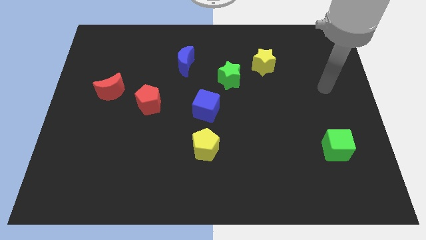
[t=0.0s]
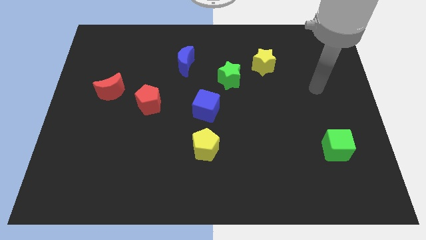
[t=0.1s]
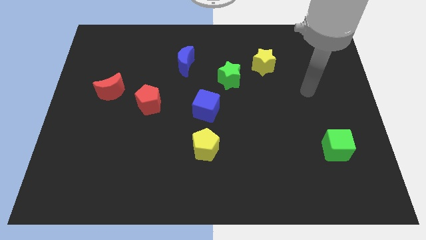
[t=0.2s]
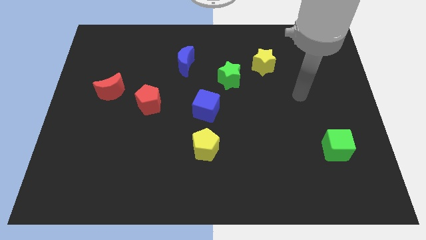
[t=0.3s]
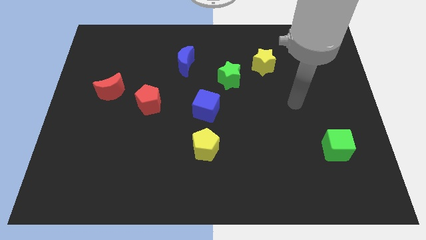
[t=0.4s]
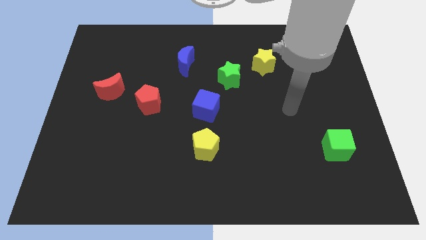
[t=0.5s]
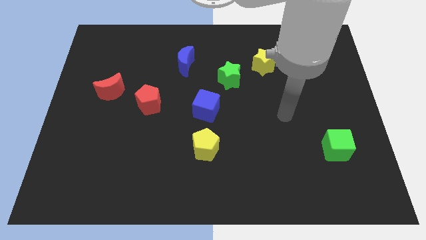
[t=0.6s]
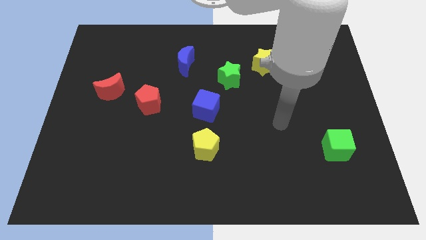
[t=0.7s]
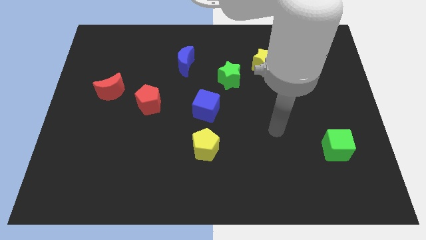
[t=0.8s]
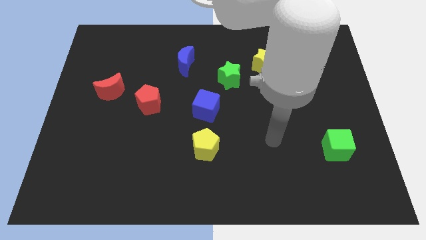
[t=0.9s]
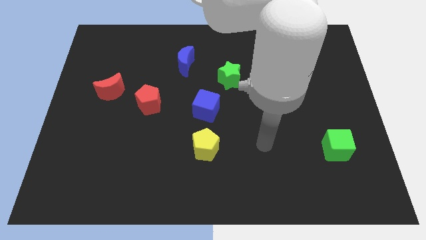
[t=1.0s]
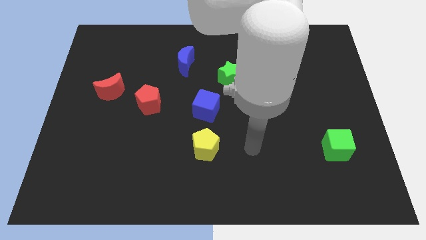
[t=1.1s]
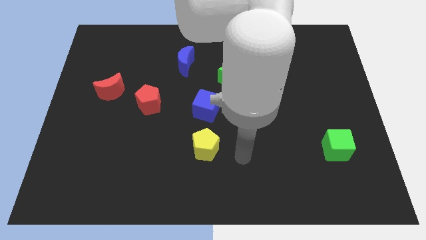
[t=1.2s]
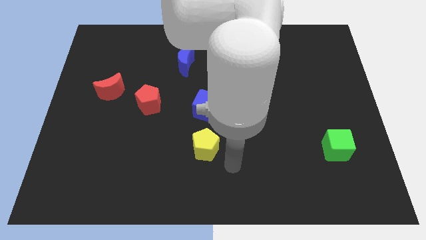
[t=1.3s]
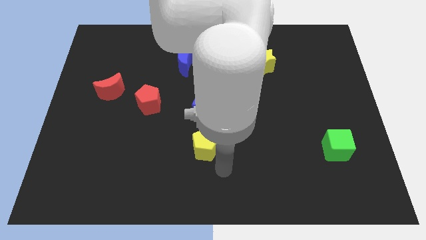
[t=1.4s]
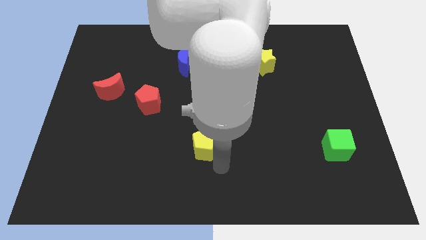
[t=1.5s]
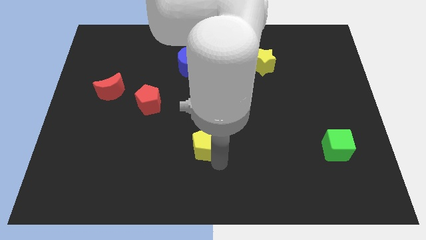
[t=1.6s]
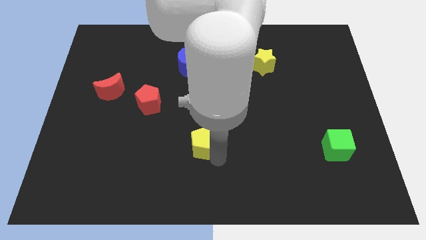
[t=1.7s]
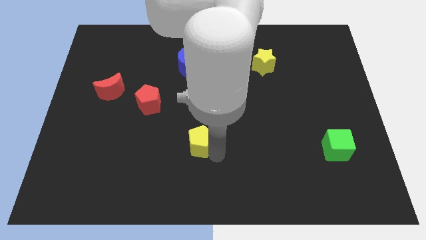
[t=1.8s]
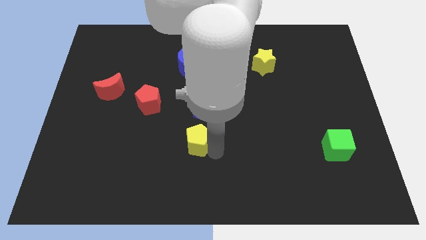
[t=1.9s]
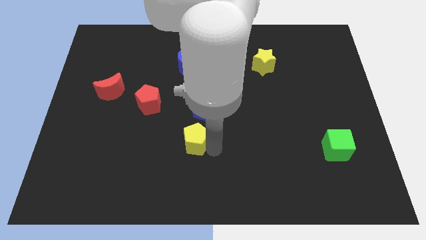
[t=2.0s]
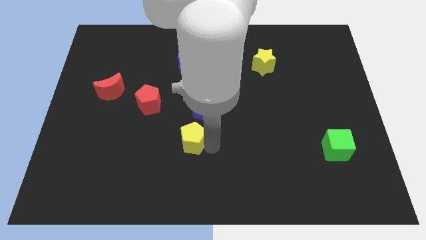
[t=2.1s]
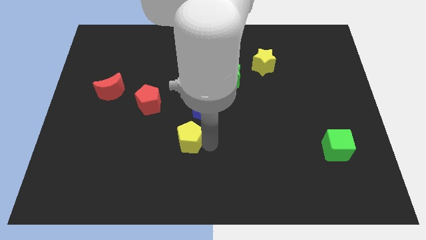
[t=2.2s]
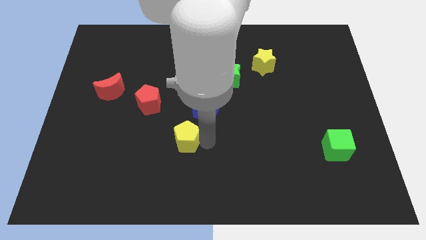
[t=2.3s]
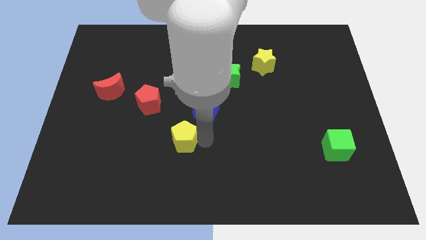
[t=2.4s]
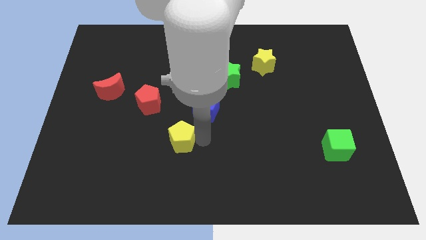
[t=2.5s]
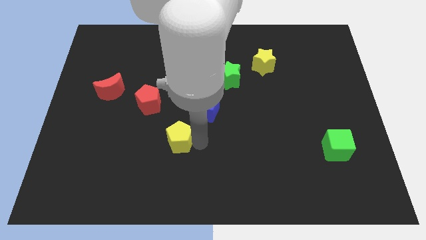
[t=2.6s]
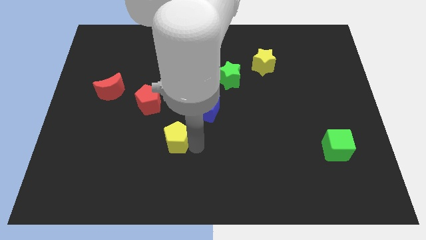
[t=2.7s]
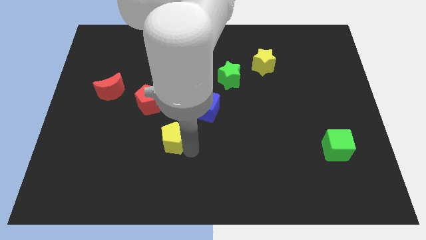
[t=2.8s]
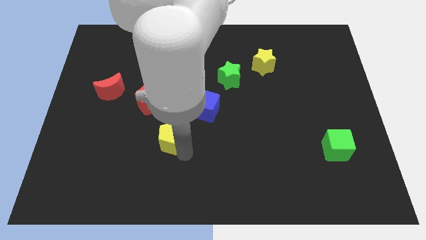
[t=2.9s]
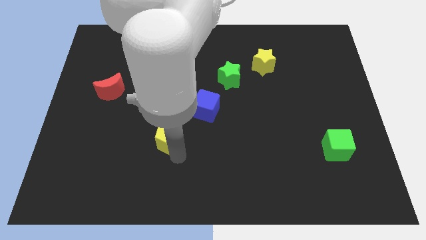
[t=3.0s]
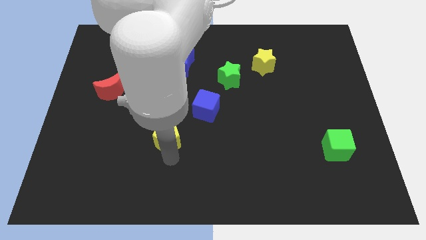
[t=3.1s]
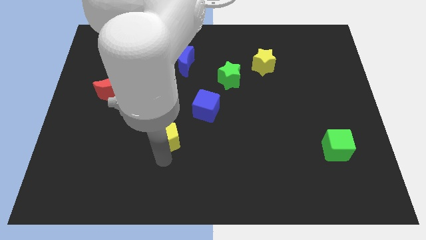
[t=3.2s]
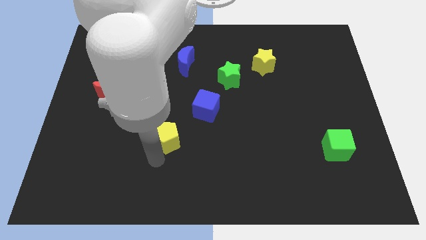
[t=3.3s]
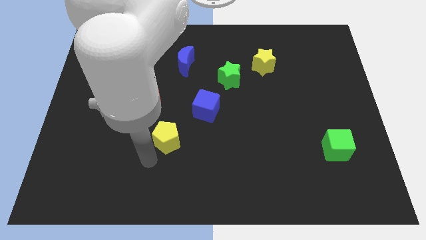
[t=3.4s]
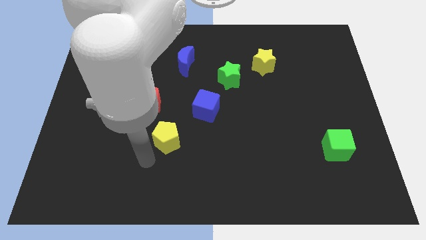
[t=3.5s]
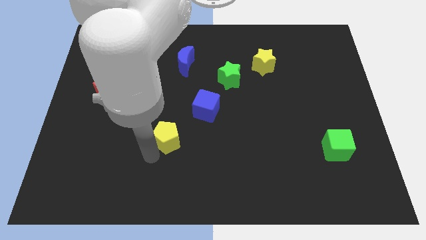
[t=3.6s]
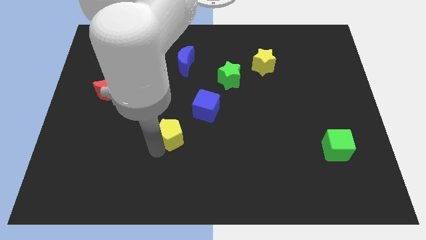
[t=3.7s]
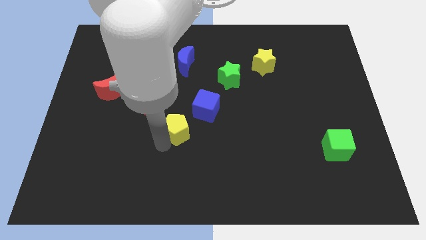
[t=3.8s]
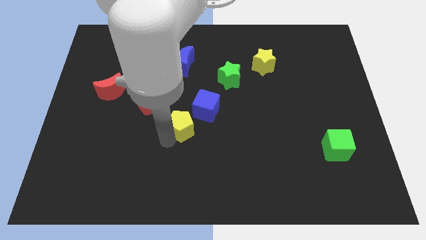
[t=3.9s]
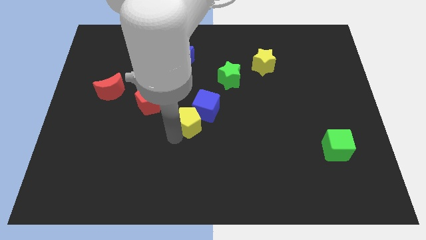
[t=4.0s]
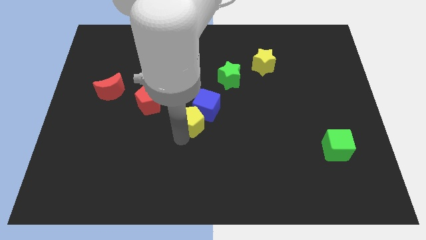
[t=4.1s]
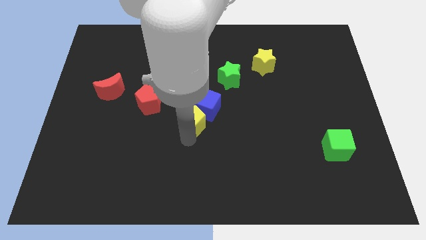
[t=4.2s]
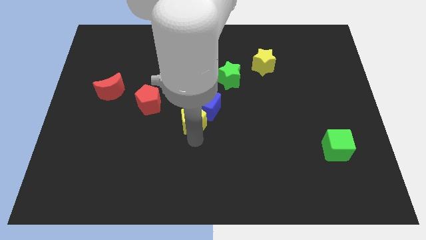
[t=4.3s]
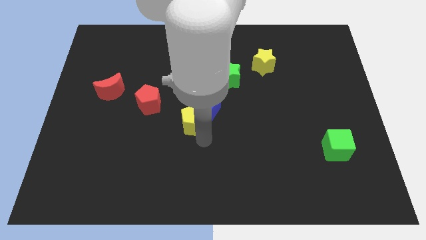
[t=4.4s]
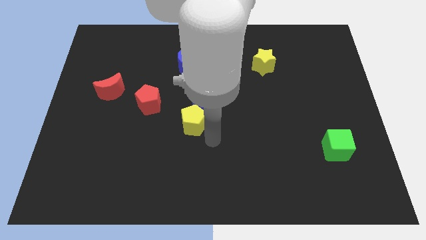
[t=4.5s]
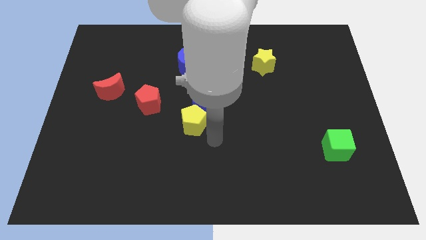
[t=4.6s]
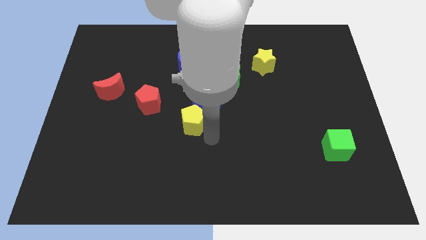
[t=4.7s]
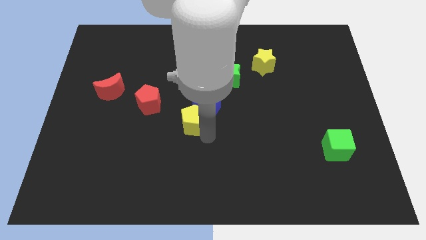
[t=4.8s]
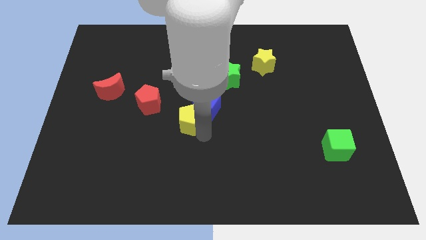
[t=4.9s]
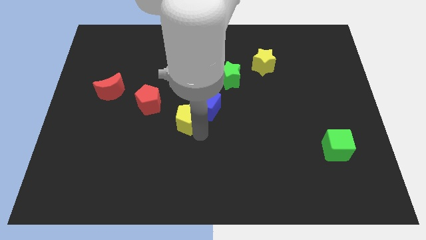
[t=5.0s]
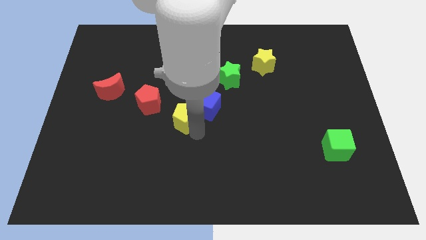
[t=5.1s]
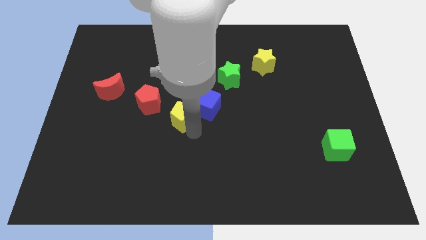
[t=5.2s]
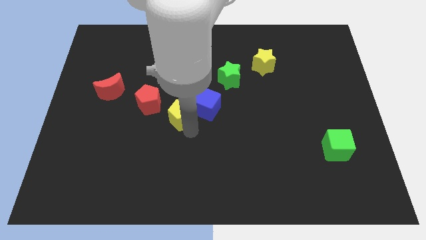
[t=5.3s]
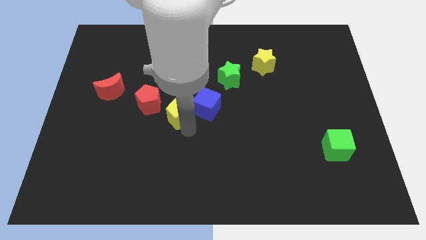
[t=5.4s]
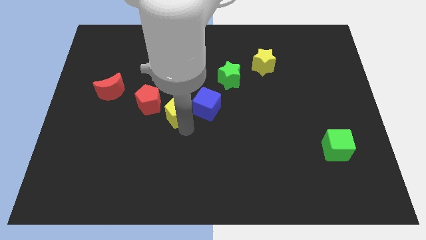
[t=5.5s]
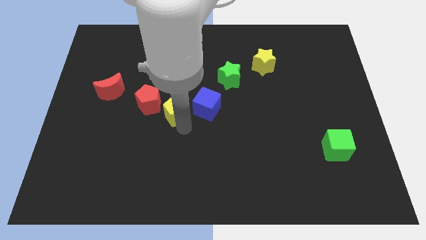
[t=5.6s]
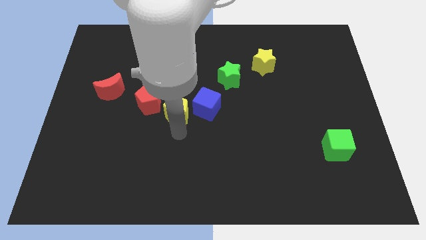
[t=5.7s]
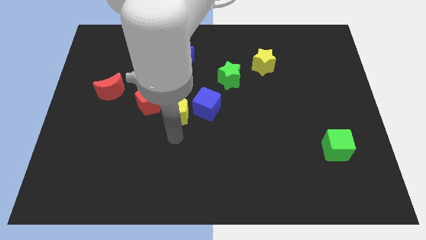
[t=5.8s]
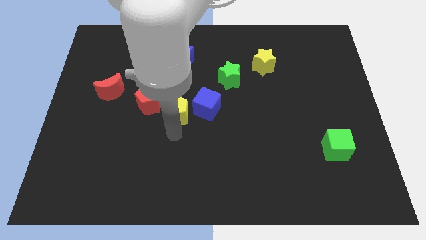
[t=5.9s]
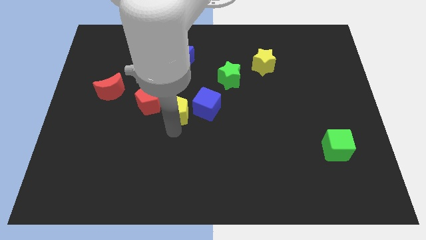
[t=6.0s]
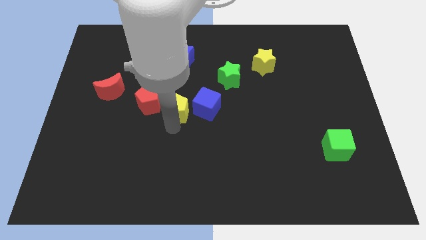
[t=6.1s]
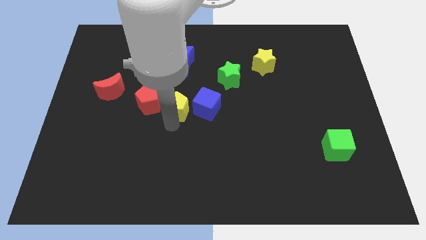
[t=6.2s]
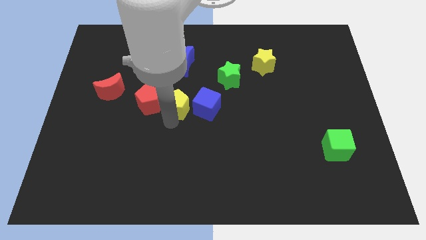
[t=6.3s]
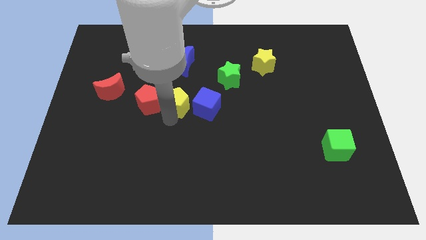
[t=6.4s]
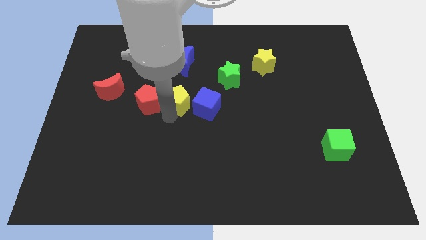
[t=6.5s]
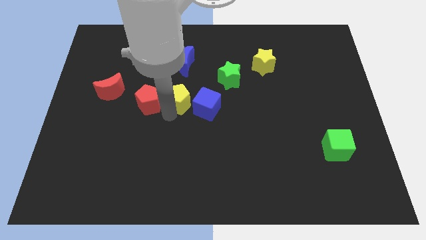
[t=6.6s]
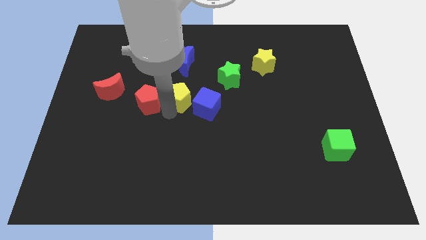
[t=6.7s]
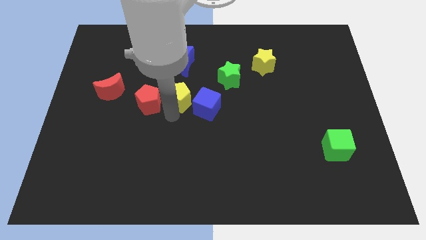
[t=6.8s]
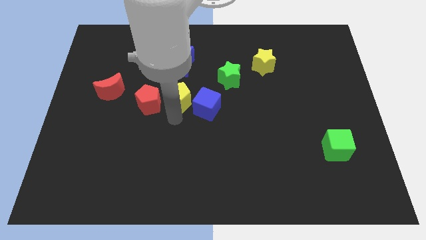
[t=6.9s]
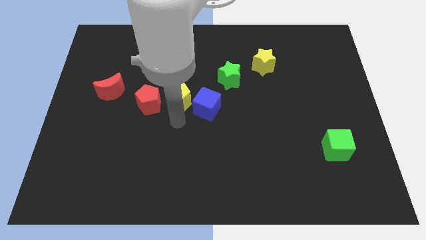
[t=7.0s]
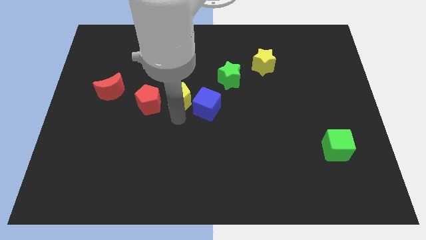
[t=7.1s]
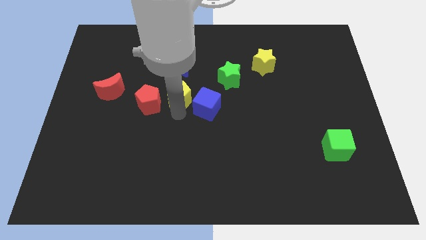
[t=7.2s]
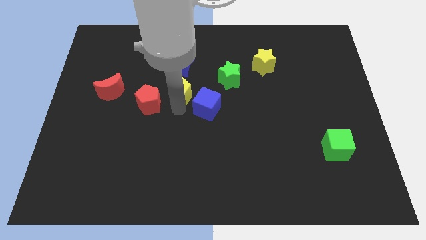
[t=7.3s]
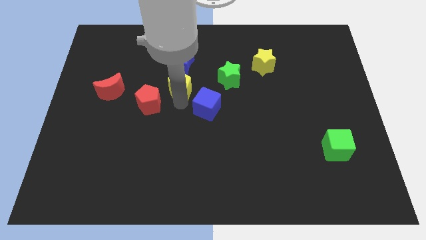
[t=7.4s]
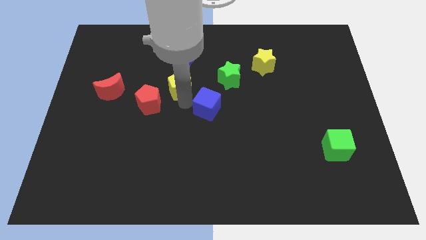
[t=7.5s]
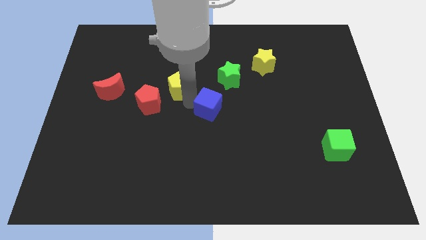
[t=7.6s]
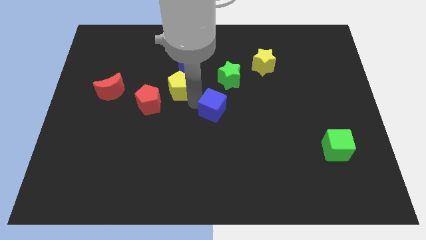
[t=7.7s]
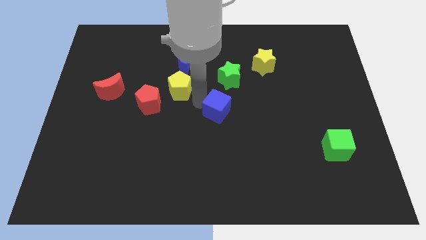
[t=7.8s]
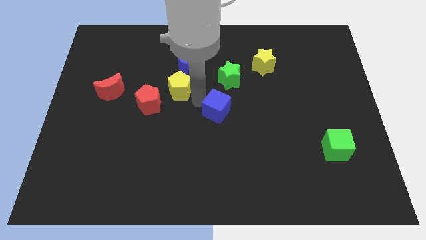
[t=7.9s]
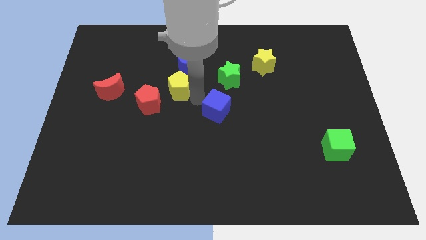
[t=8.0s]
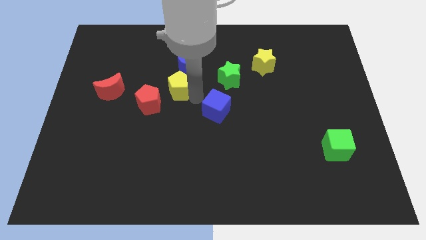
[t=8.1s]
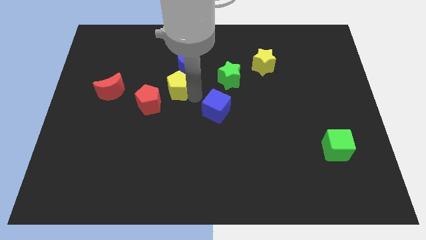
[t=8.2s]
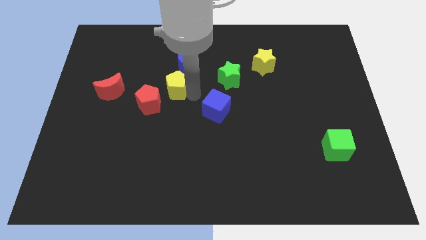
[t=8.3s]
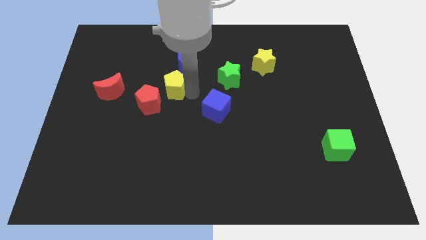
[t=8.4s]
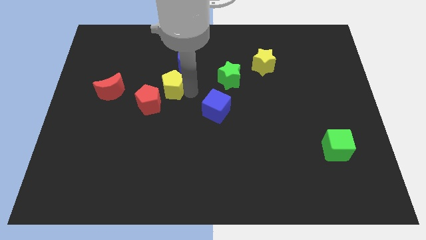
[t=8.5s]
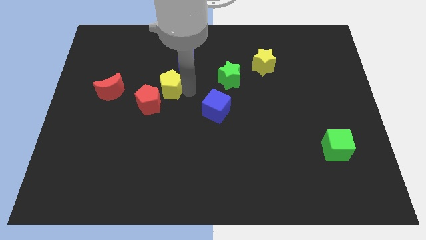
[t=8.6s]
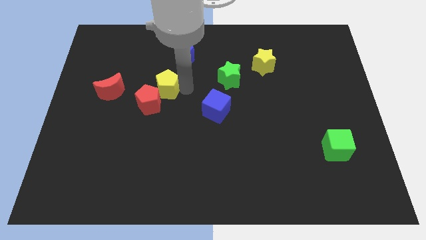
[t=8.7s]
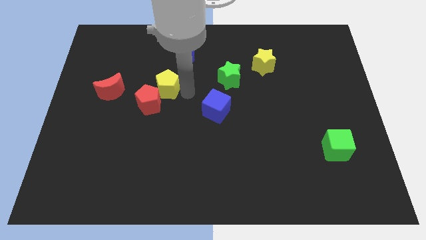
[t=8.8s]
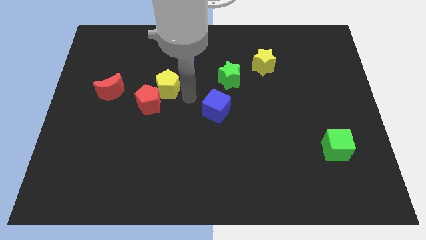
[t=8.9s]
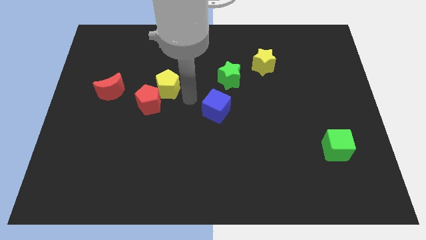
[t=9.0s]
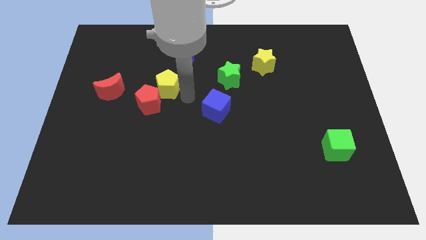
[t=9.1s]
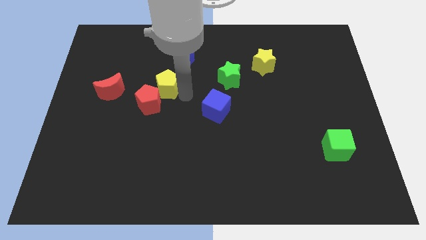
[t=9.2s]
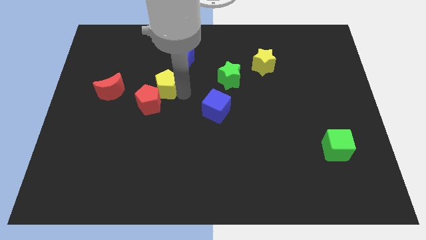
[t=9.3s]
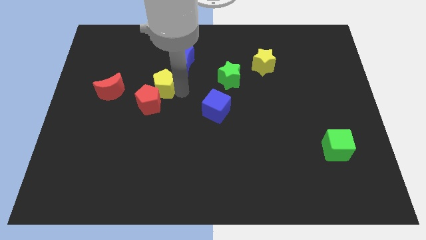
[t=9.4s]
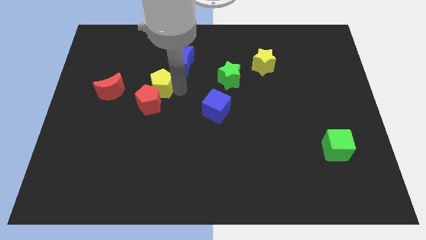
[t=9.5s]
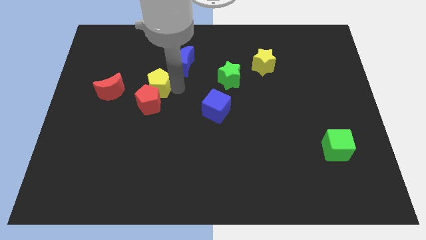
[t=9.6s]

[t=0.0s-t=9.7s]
push the yellow pentagon upwards and then to the left
